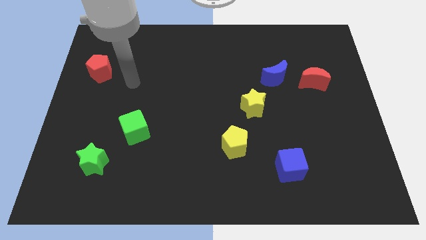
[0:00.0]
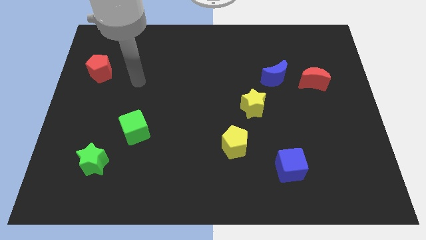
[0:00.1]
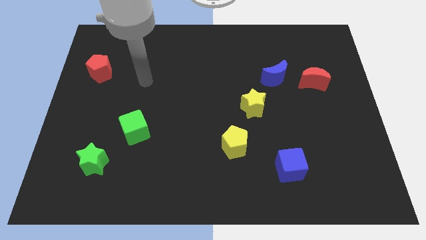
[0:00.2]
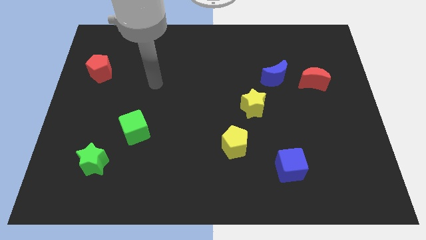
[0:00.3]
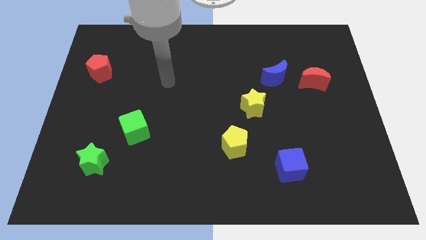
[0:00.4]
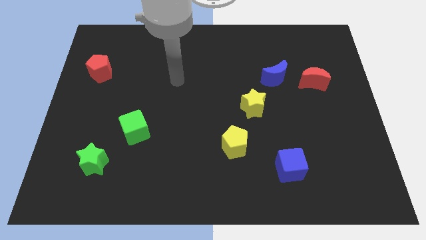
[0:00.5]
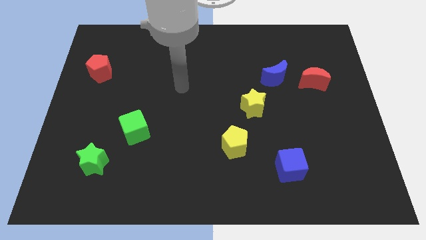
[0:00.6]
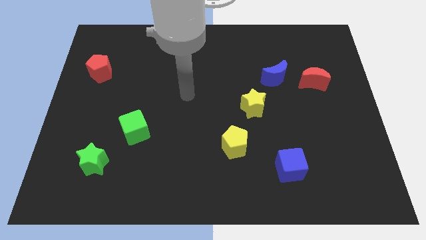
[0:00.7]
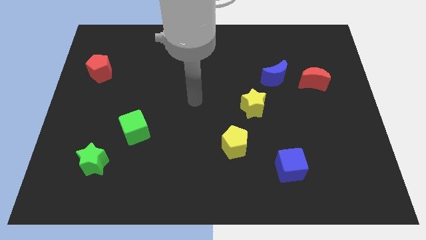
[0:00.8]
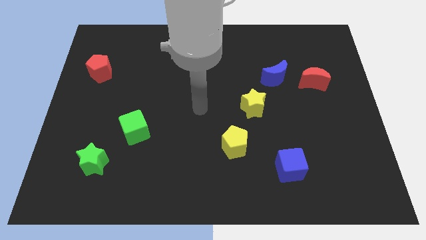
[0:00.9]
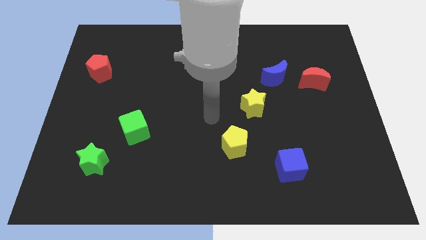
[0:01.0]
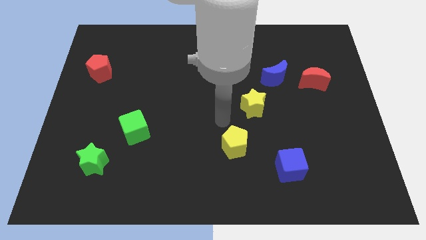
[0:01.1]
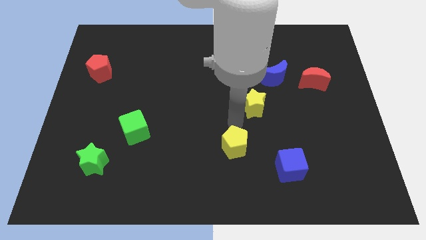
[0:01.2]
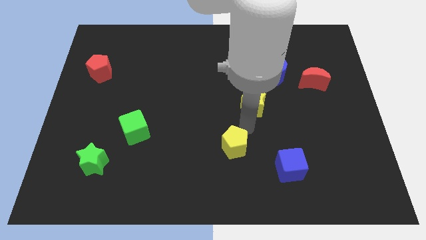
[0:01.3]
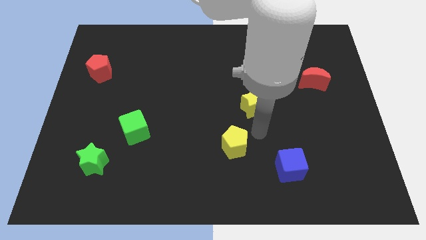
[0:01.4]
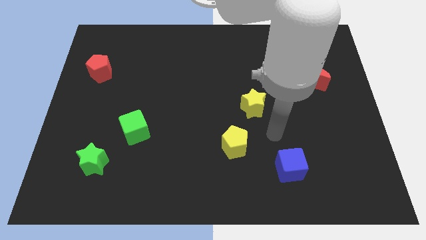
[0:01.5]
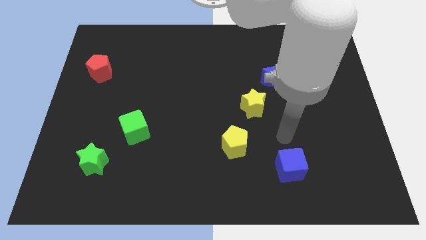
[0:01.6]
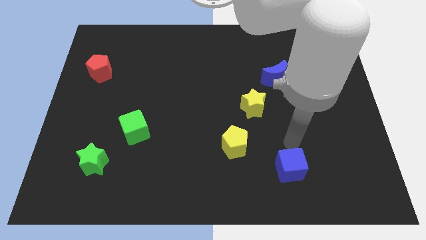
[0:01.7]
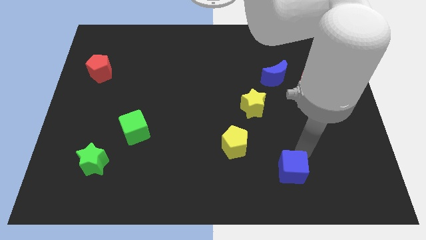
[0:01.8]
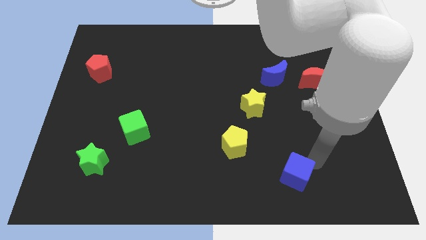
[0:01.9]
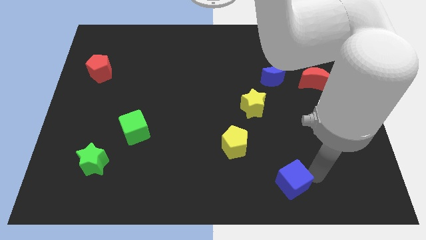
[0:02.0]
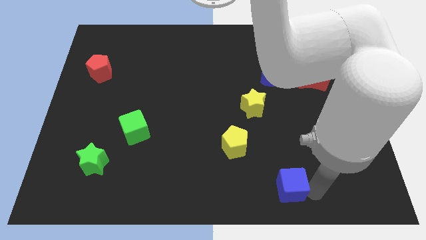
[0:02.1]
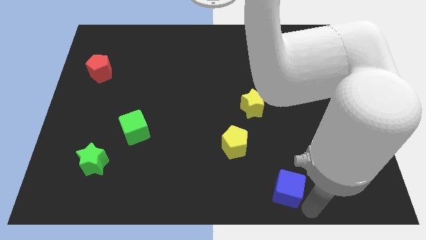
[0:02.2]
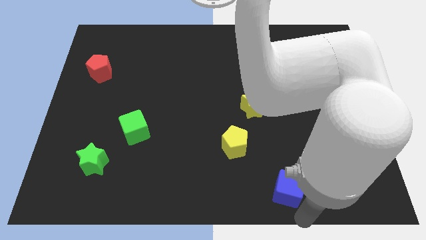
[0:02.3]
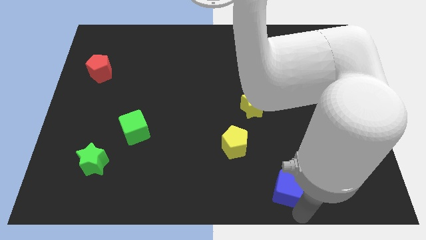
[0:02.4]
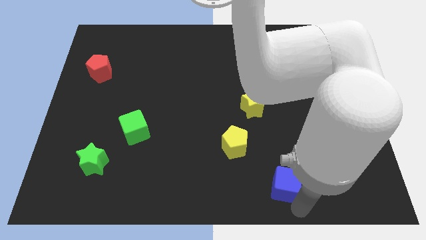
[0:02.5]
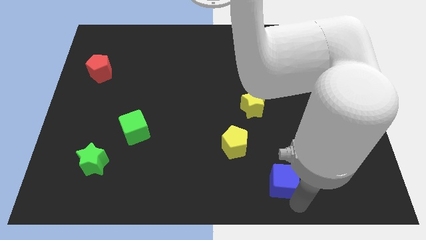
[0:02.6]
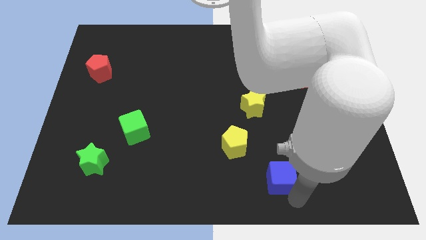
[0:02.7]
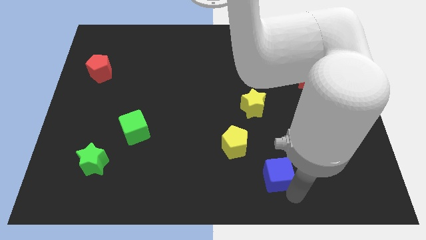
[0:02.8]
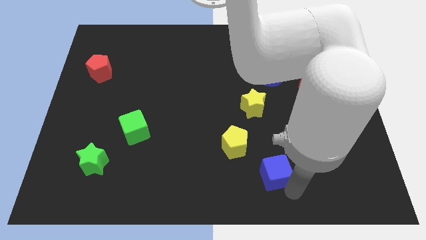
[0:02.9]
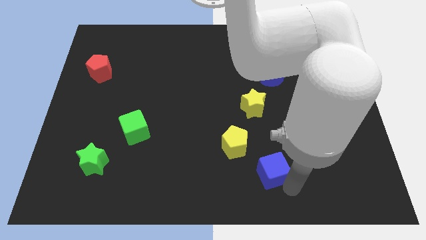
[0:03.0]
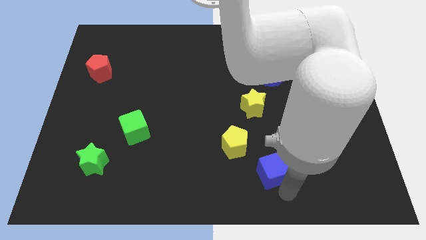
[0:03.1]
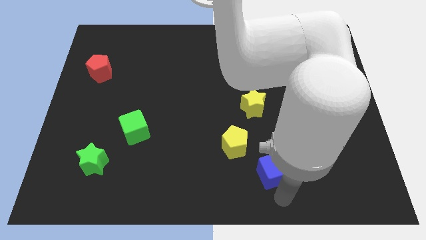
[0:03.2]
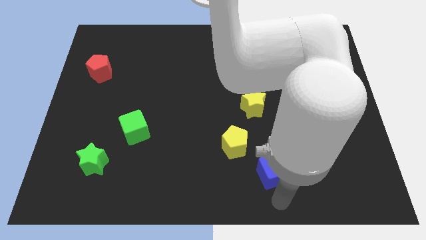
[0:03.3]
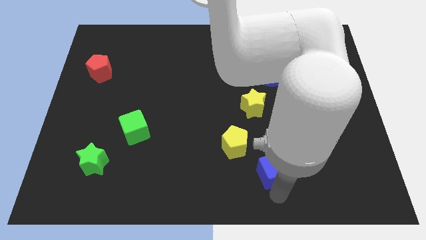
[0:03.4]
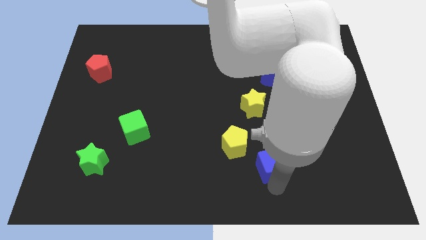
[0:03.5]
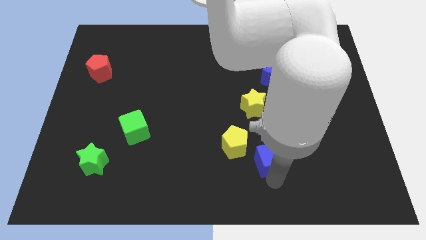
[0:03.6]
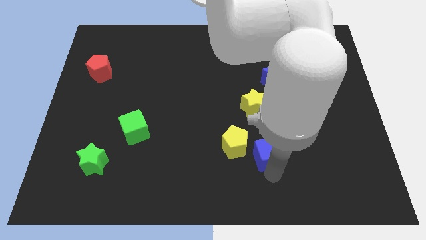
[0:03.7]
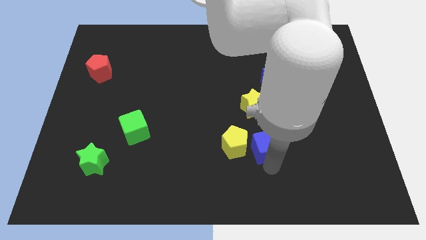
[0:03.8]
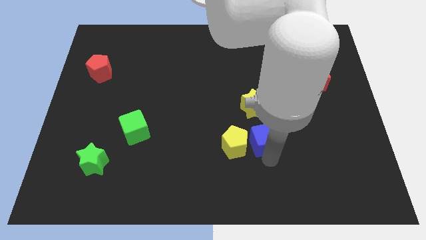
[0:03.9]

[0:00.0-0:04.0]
slightly slide the blue cube diagonally upwards and to the left

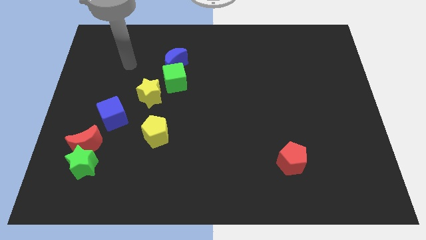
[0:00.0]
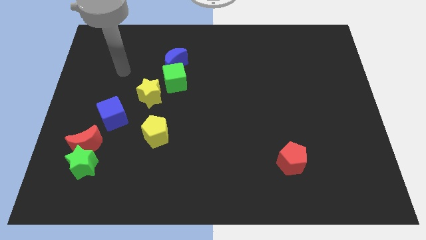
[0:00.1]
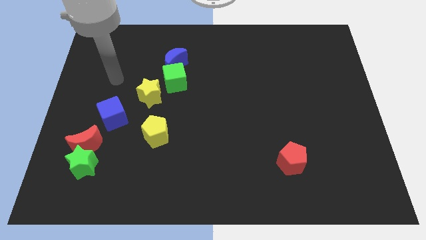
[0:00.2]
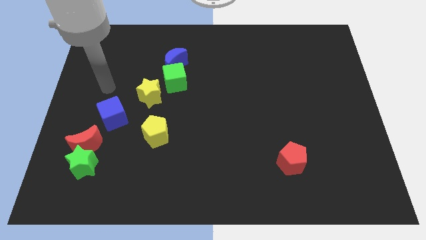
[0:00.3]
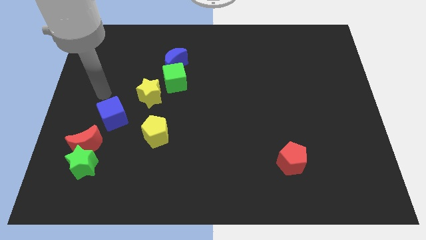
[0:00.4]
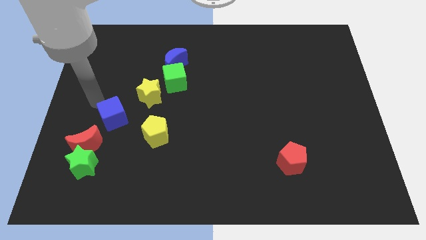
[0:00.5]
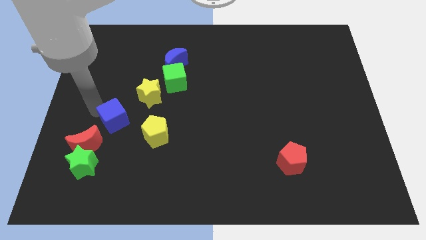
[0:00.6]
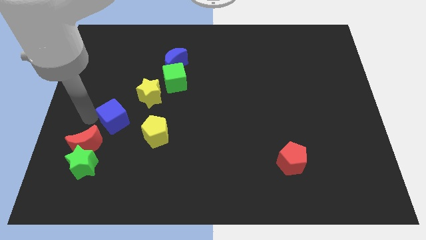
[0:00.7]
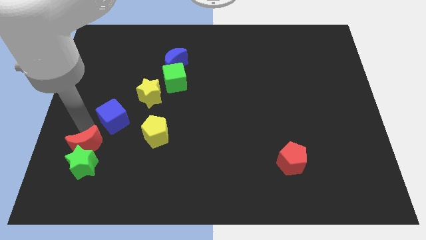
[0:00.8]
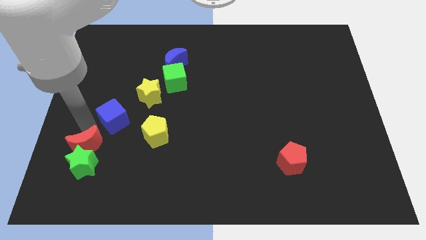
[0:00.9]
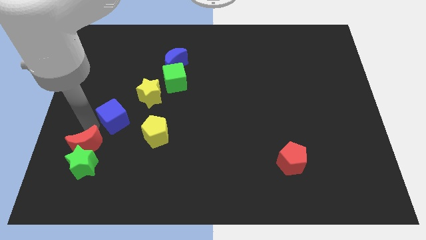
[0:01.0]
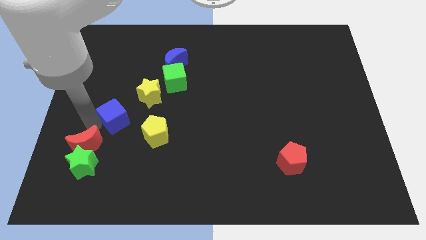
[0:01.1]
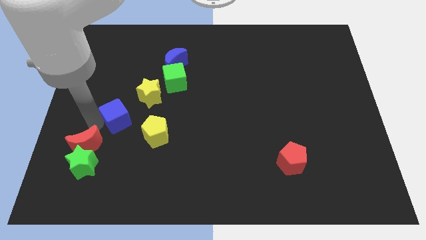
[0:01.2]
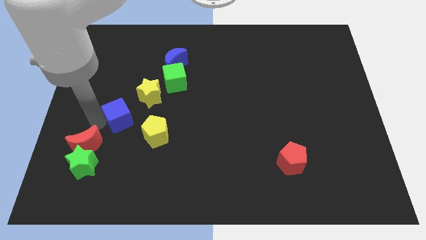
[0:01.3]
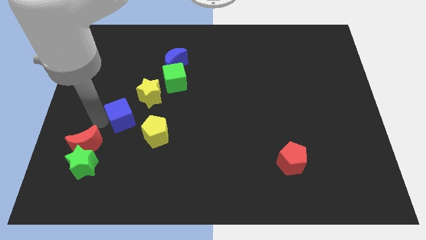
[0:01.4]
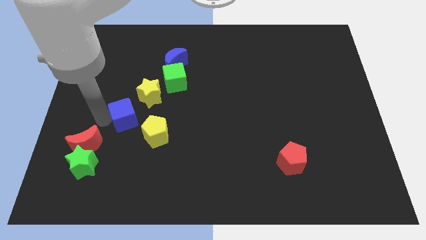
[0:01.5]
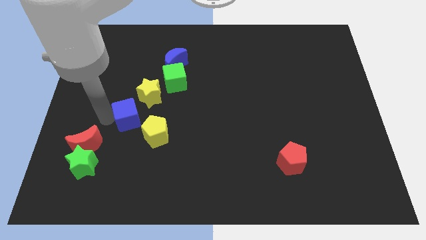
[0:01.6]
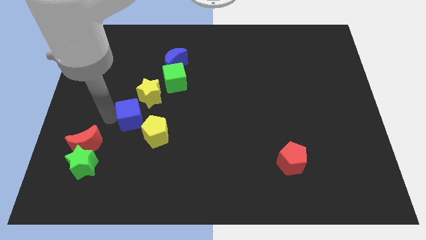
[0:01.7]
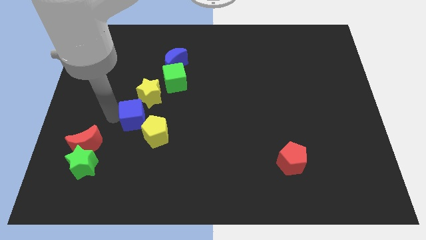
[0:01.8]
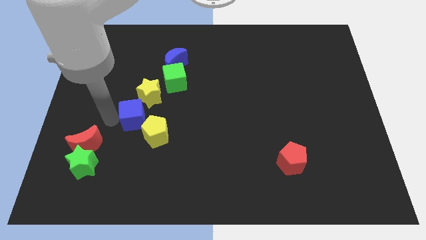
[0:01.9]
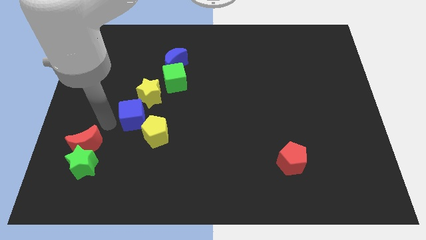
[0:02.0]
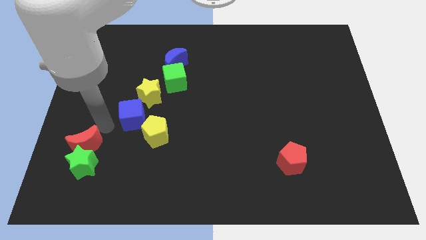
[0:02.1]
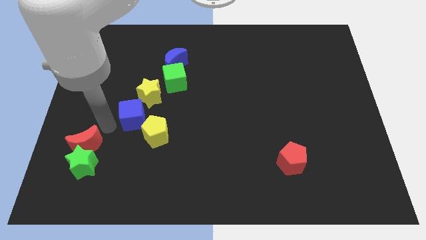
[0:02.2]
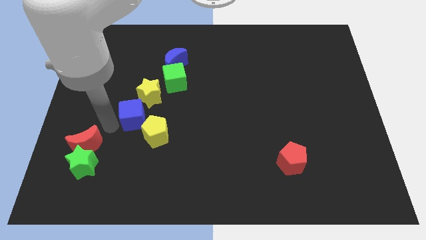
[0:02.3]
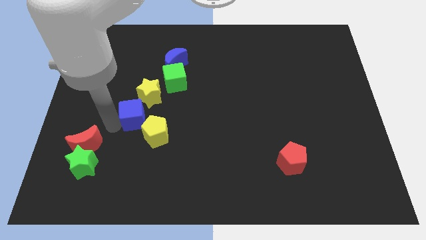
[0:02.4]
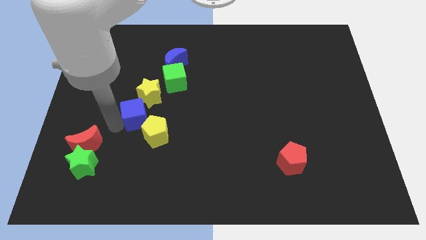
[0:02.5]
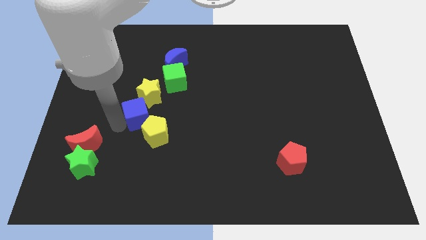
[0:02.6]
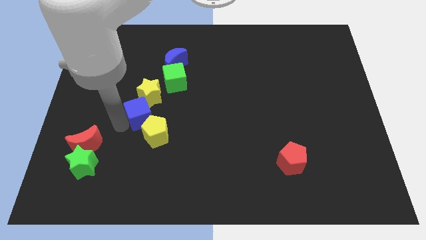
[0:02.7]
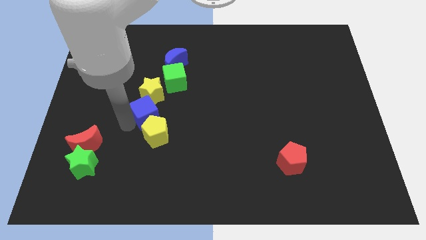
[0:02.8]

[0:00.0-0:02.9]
slide the blue cube to the right slightly

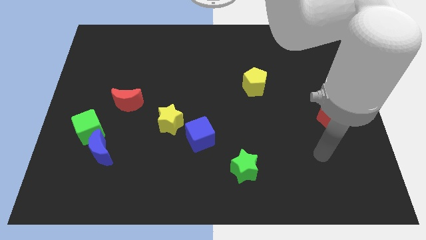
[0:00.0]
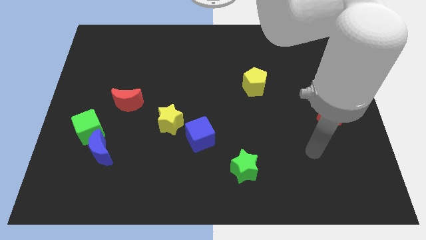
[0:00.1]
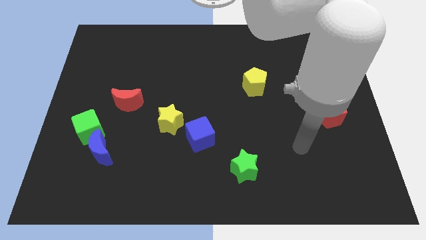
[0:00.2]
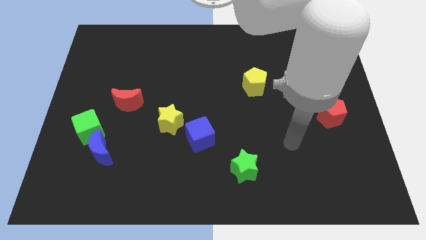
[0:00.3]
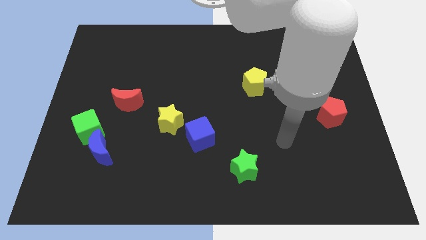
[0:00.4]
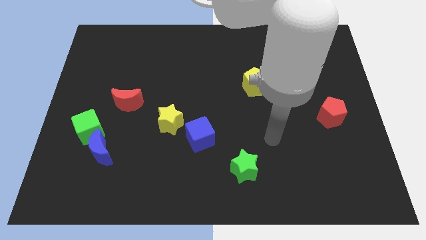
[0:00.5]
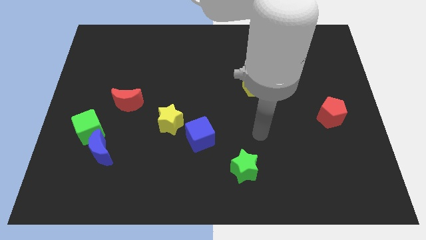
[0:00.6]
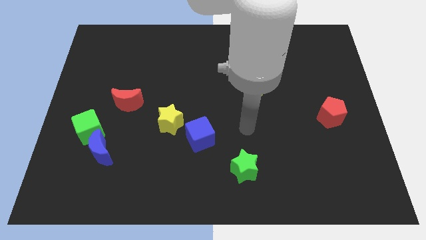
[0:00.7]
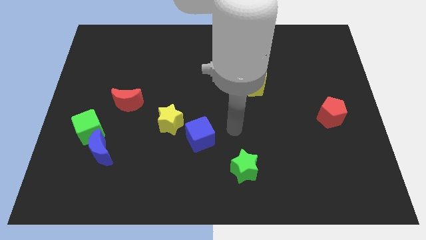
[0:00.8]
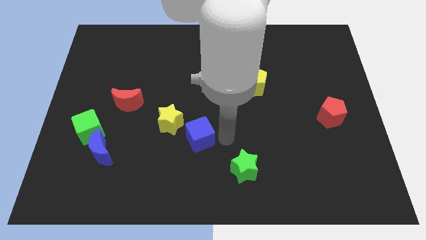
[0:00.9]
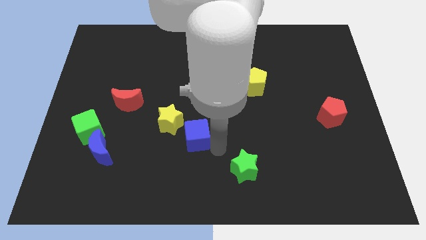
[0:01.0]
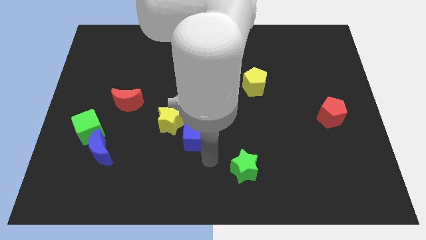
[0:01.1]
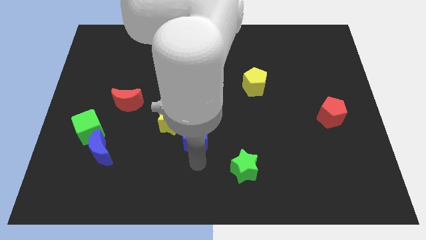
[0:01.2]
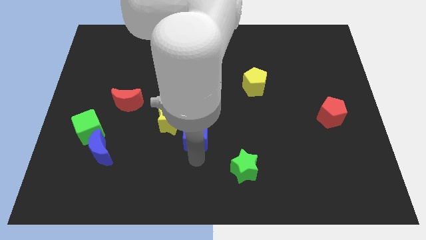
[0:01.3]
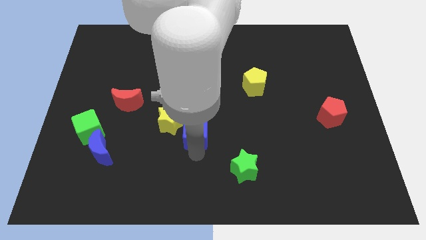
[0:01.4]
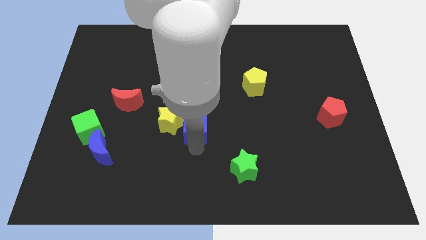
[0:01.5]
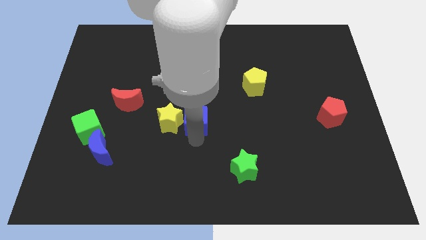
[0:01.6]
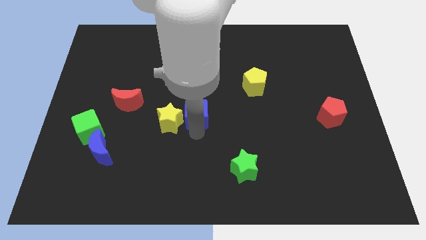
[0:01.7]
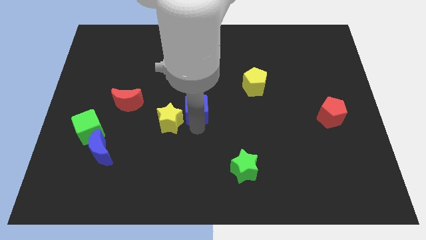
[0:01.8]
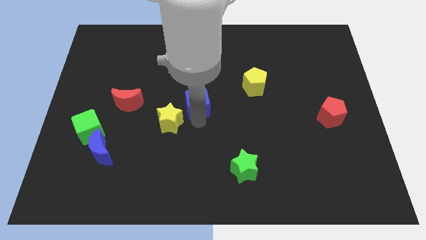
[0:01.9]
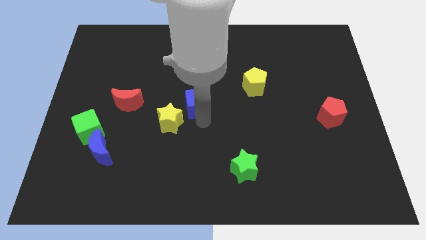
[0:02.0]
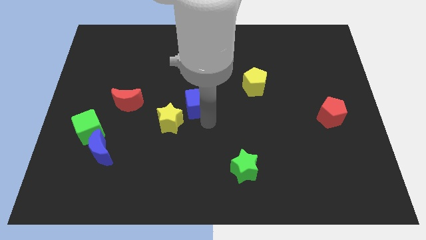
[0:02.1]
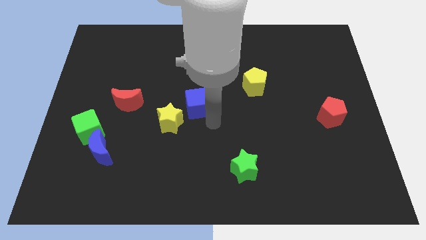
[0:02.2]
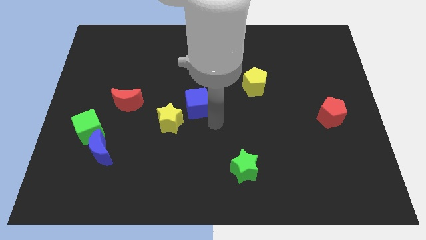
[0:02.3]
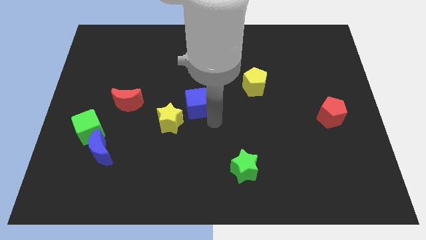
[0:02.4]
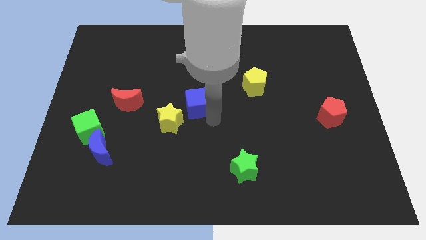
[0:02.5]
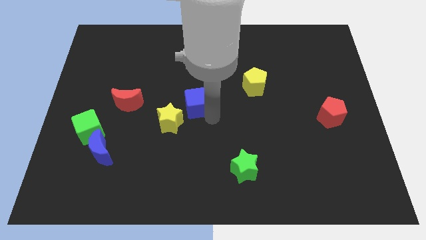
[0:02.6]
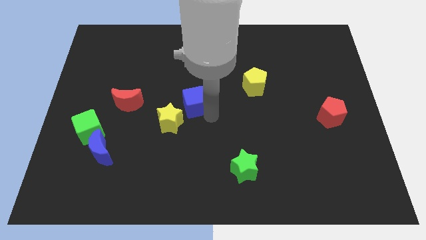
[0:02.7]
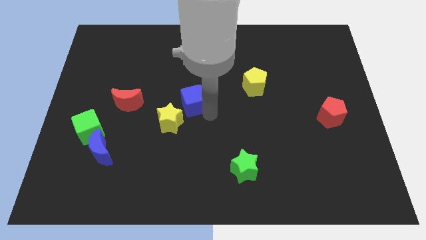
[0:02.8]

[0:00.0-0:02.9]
push the blue cube up and then left a little bit
